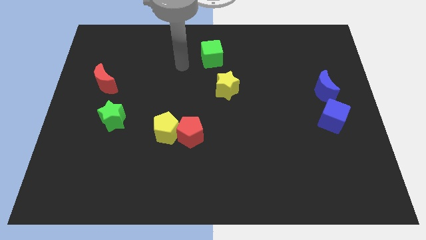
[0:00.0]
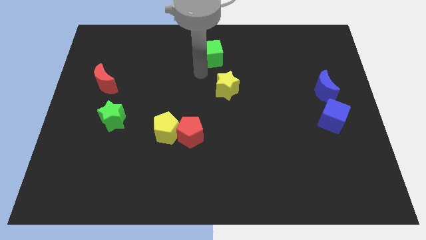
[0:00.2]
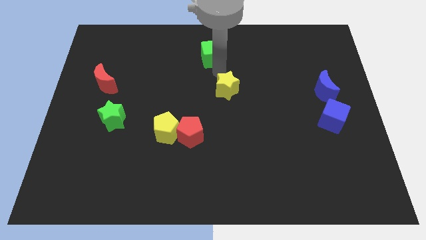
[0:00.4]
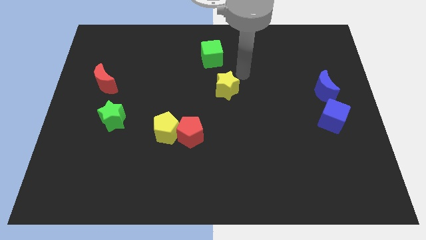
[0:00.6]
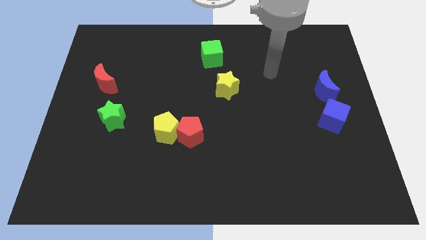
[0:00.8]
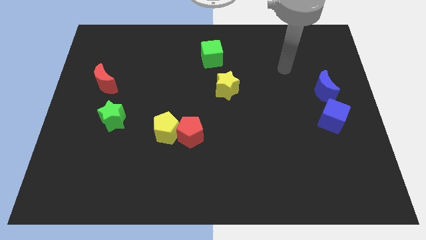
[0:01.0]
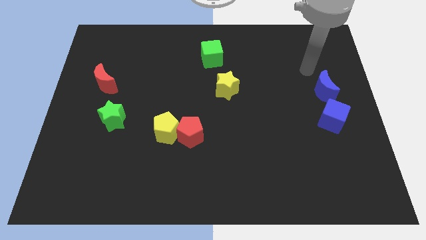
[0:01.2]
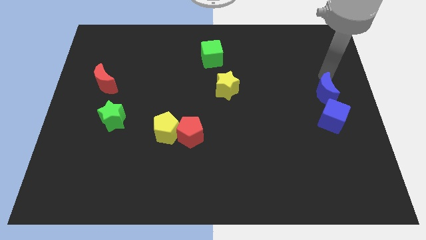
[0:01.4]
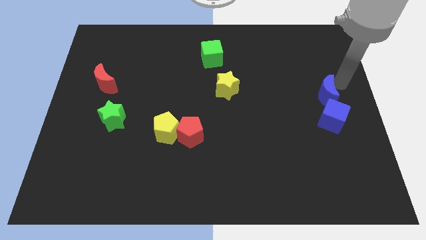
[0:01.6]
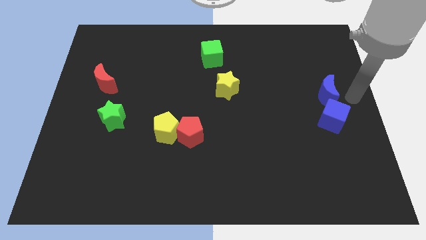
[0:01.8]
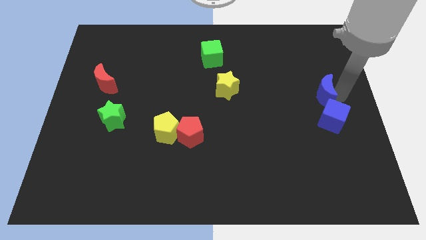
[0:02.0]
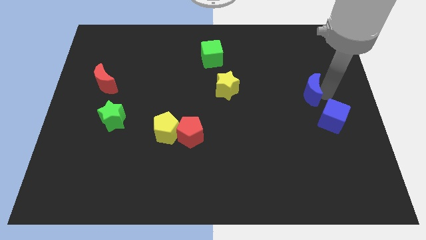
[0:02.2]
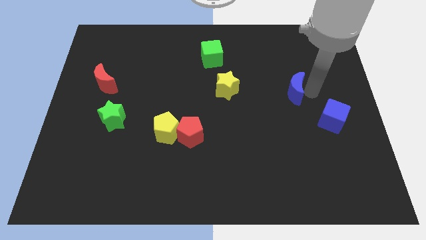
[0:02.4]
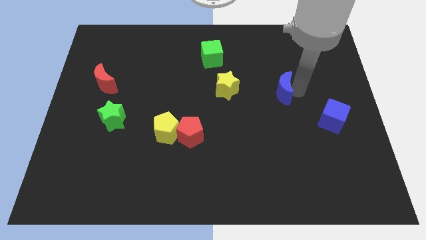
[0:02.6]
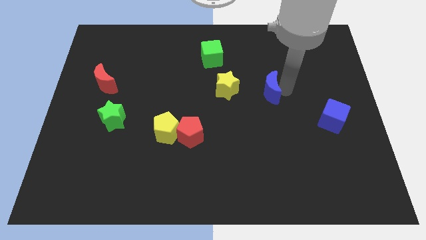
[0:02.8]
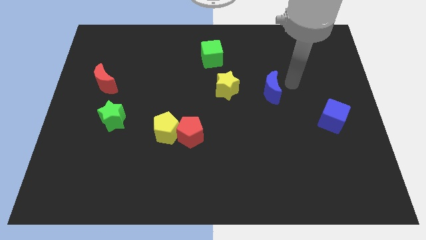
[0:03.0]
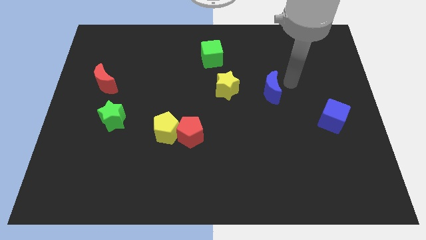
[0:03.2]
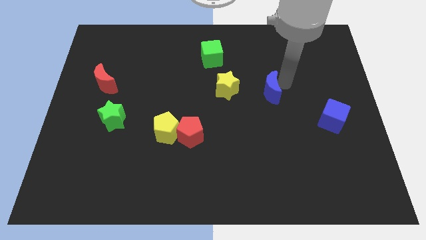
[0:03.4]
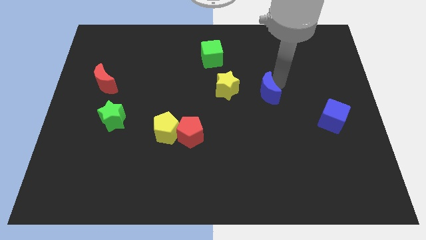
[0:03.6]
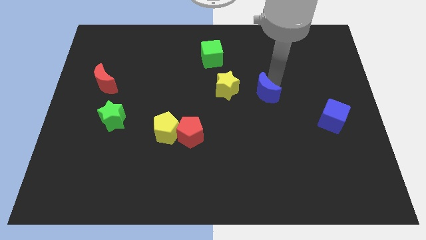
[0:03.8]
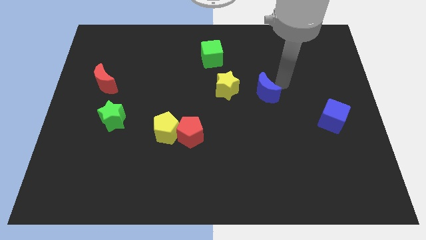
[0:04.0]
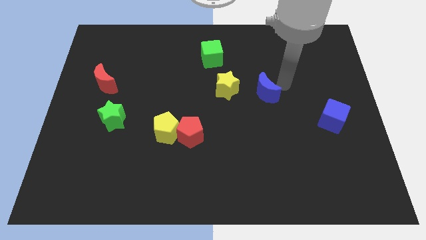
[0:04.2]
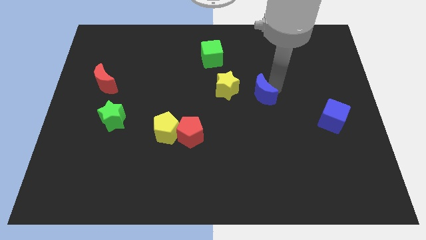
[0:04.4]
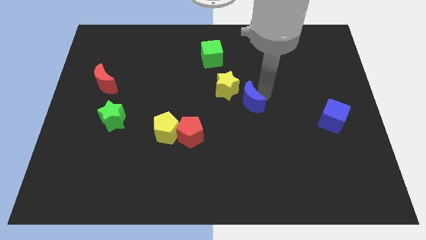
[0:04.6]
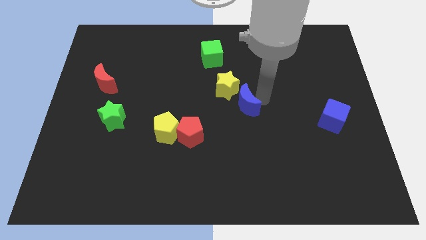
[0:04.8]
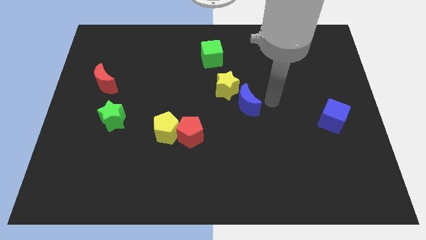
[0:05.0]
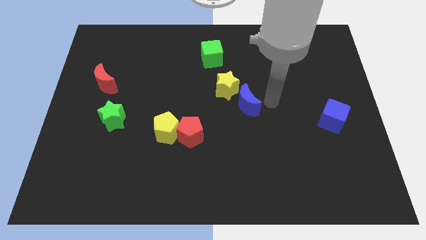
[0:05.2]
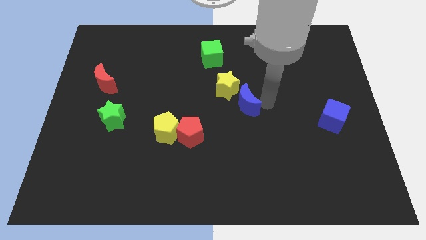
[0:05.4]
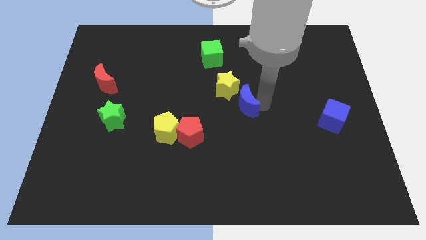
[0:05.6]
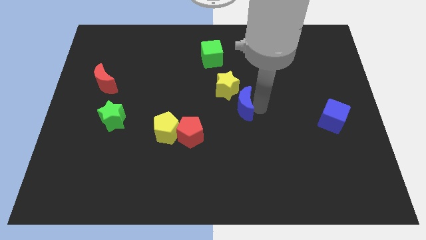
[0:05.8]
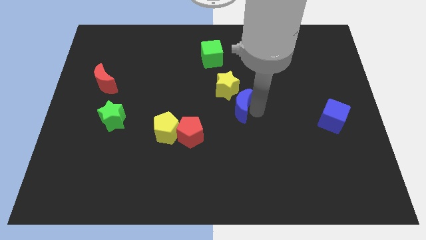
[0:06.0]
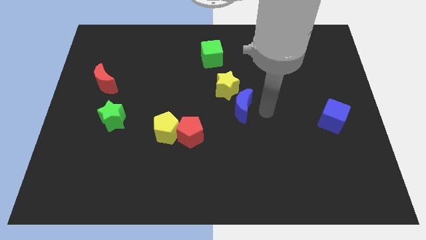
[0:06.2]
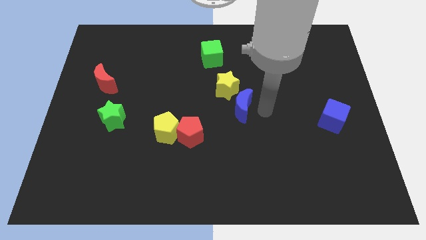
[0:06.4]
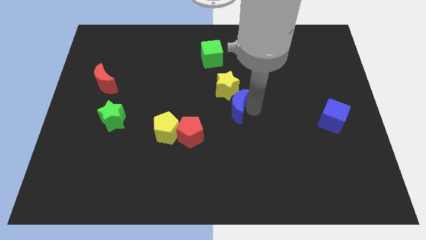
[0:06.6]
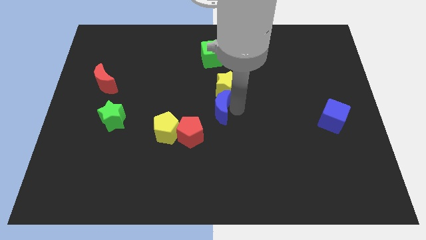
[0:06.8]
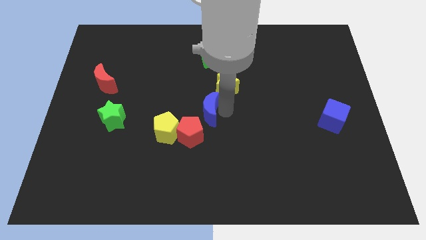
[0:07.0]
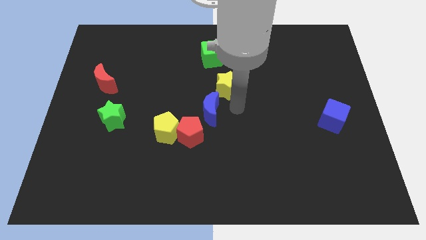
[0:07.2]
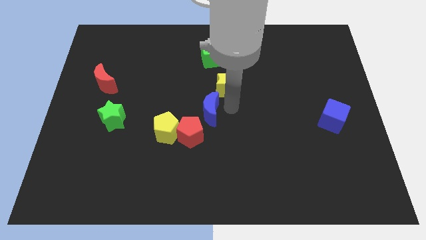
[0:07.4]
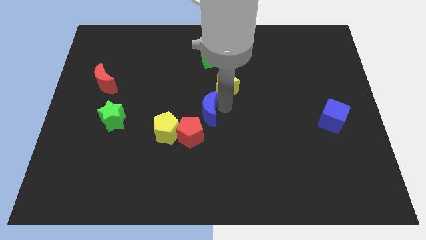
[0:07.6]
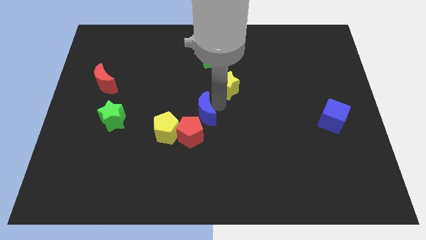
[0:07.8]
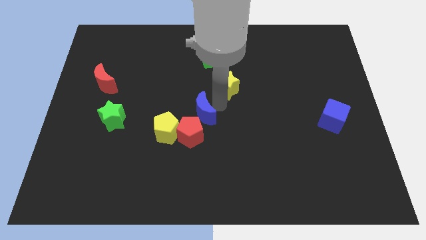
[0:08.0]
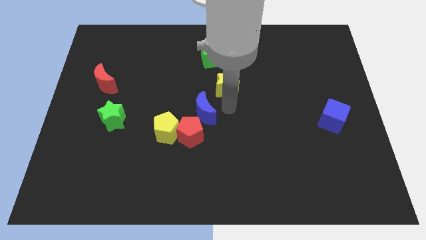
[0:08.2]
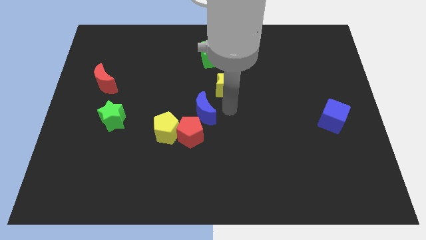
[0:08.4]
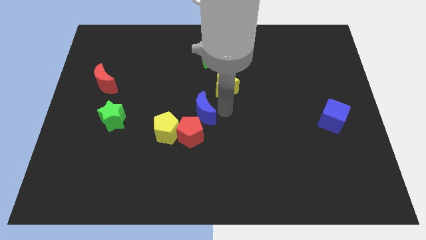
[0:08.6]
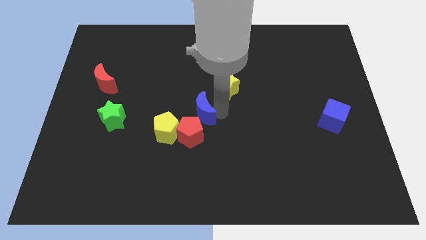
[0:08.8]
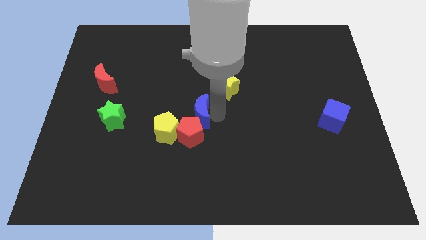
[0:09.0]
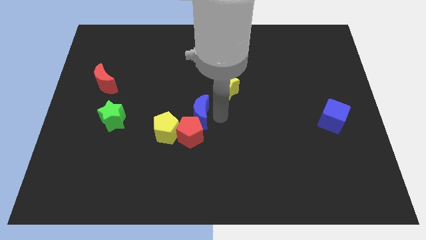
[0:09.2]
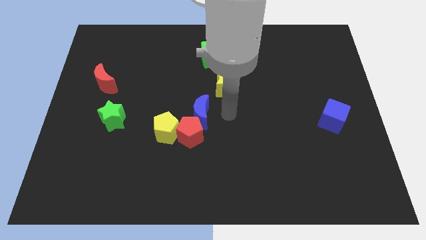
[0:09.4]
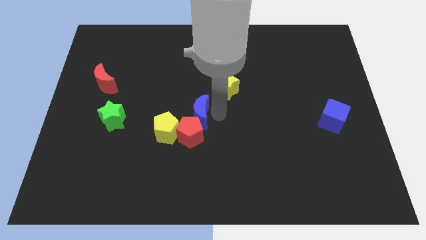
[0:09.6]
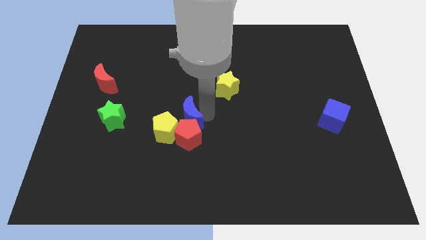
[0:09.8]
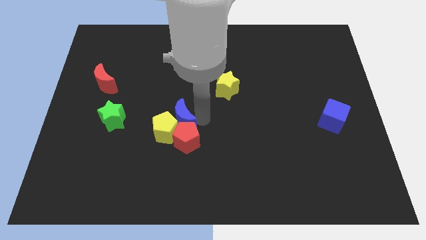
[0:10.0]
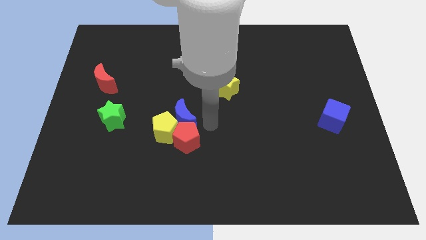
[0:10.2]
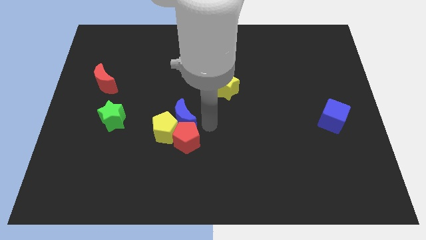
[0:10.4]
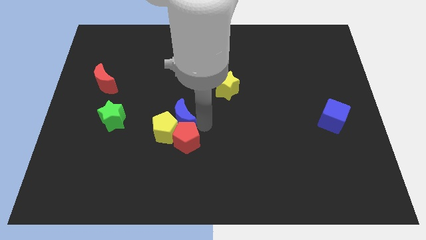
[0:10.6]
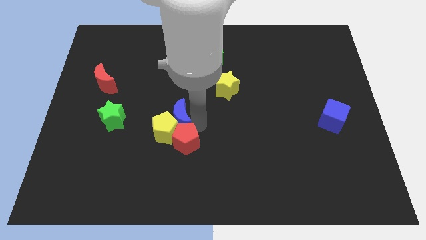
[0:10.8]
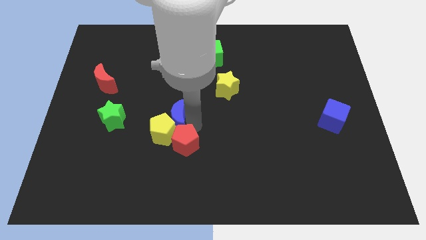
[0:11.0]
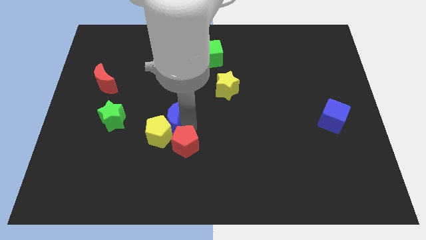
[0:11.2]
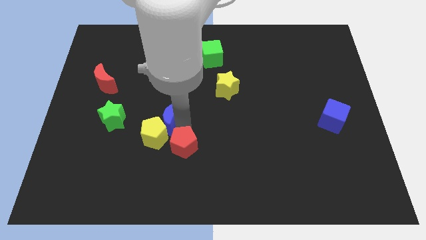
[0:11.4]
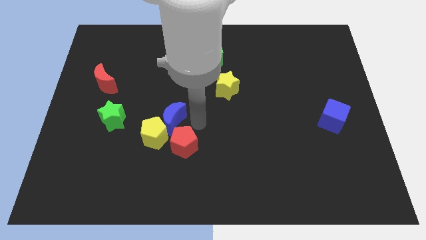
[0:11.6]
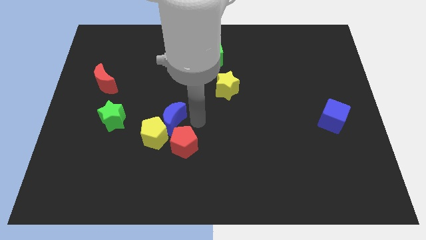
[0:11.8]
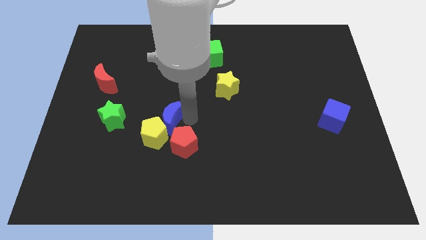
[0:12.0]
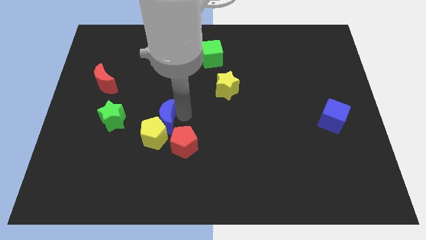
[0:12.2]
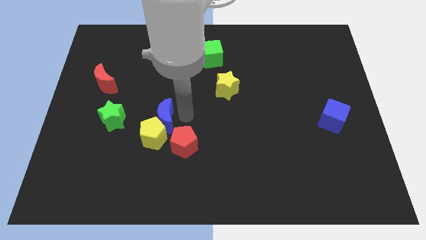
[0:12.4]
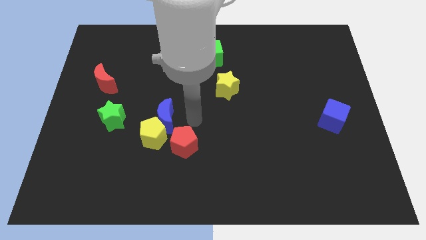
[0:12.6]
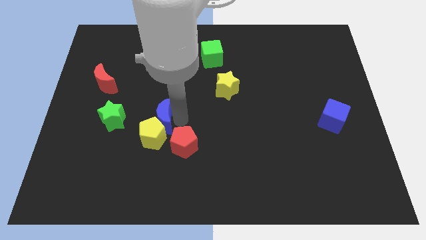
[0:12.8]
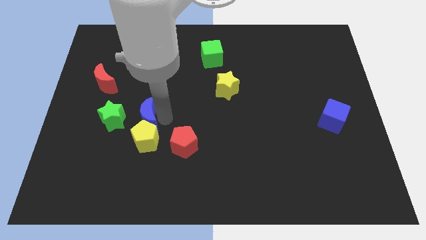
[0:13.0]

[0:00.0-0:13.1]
move the blue moon diagonally up and to the left of the yellow pentagon

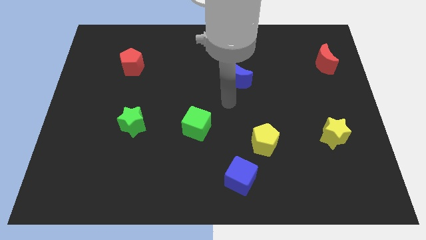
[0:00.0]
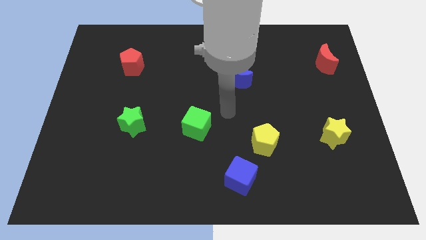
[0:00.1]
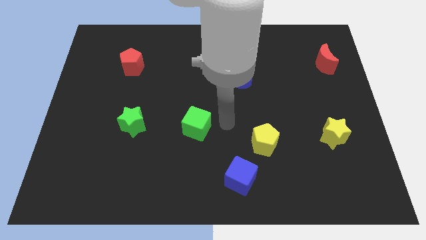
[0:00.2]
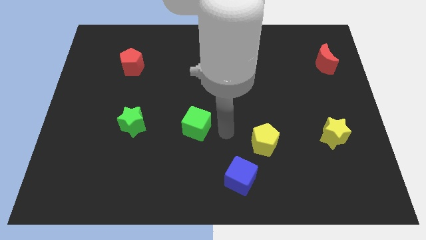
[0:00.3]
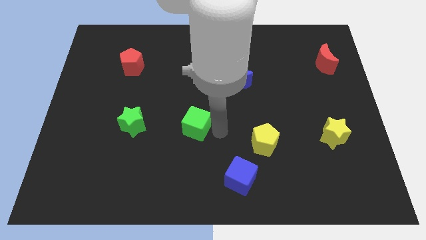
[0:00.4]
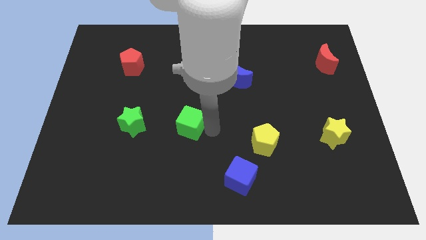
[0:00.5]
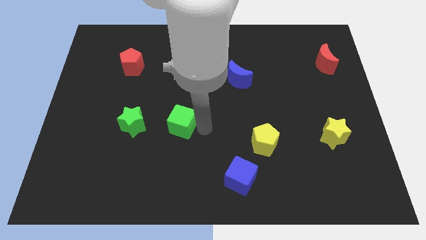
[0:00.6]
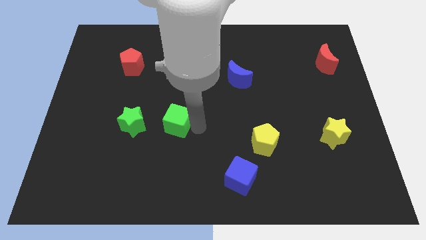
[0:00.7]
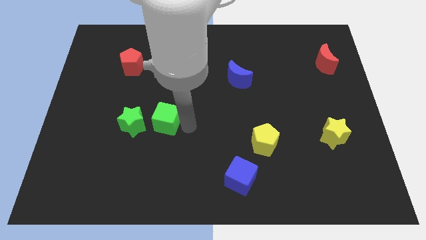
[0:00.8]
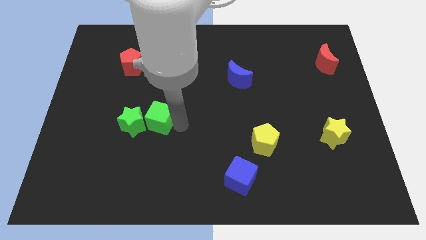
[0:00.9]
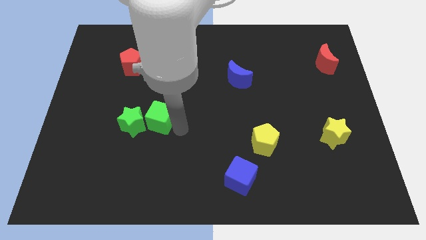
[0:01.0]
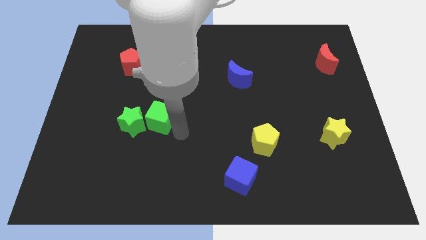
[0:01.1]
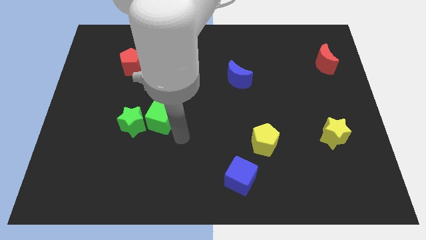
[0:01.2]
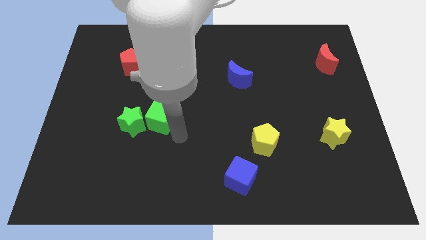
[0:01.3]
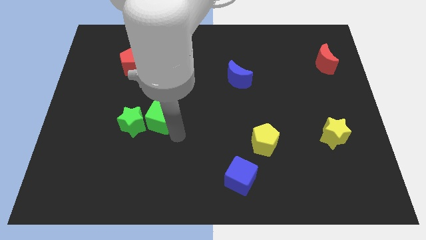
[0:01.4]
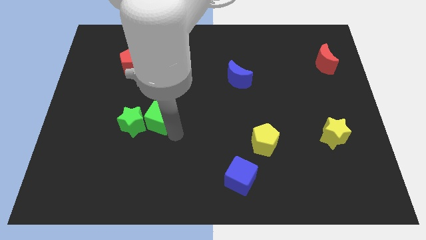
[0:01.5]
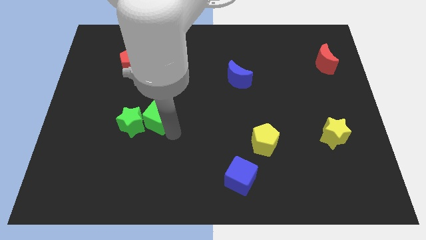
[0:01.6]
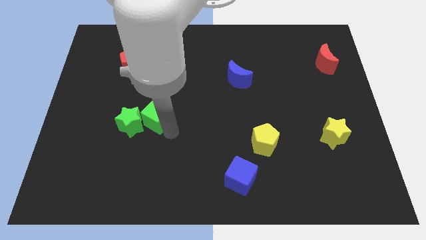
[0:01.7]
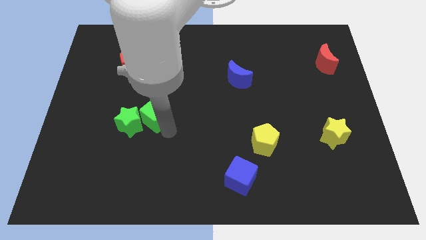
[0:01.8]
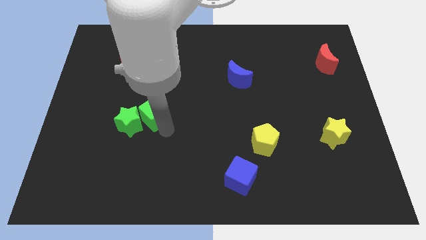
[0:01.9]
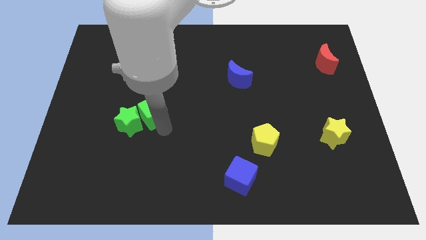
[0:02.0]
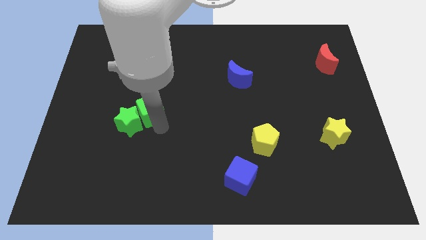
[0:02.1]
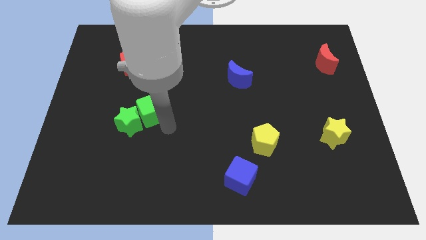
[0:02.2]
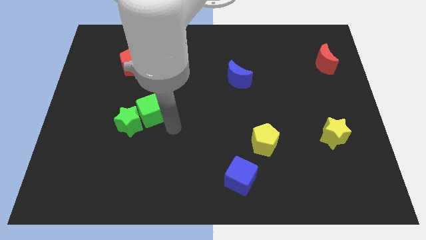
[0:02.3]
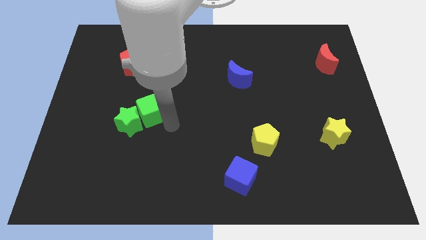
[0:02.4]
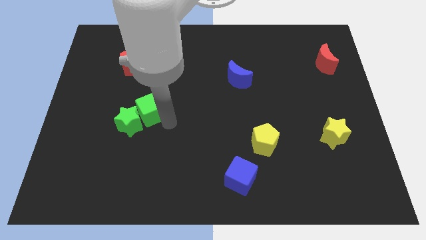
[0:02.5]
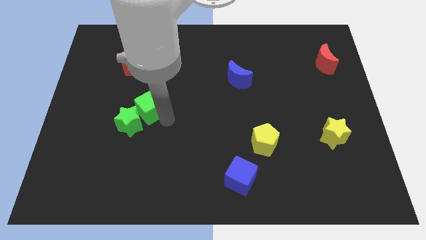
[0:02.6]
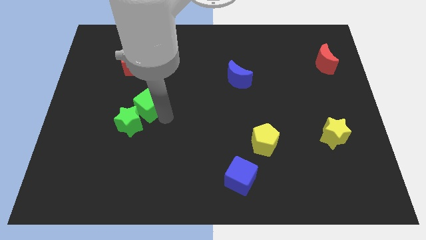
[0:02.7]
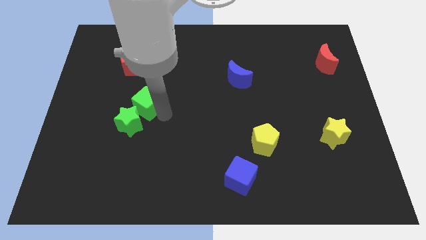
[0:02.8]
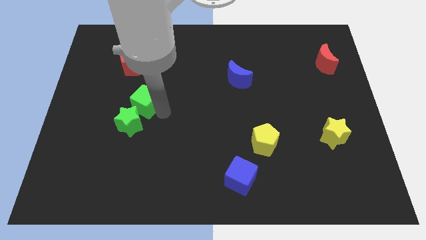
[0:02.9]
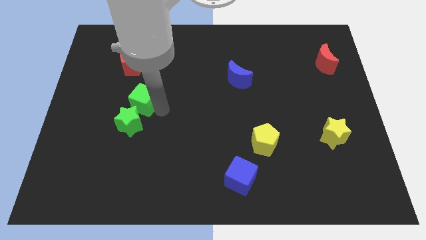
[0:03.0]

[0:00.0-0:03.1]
slide the green cube to the bottom of the red pentagon
